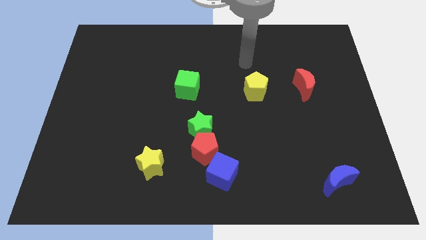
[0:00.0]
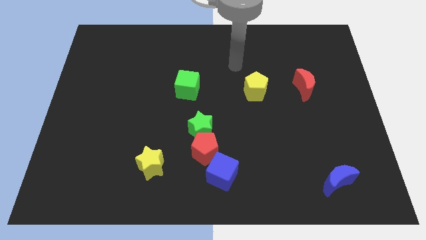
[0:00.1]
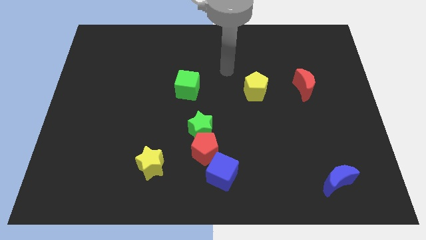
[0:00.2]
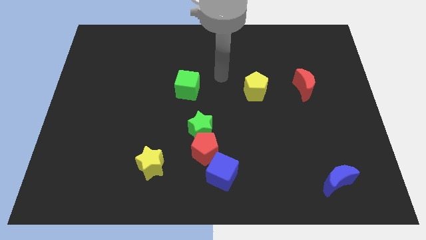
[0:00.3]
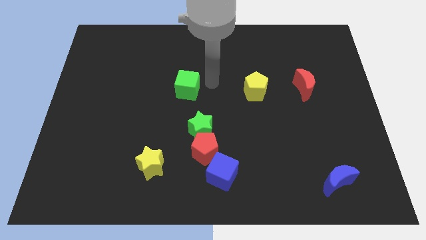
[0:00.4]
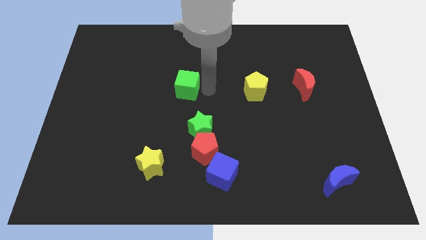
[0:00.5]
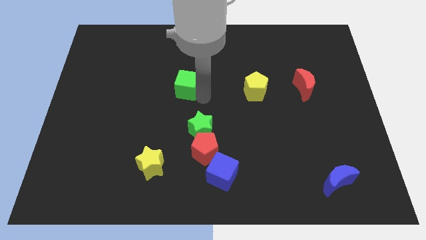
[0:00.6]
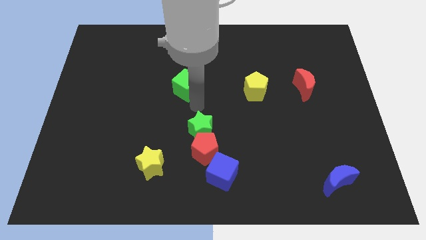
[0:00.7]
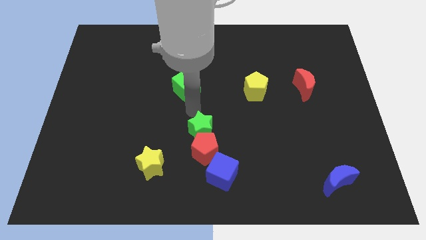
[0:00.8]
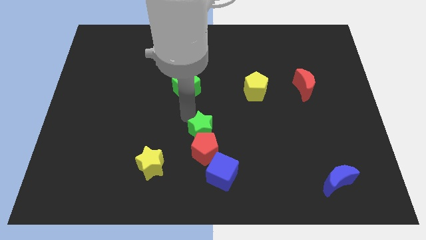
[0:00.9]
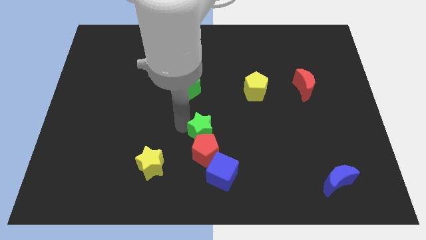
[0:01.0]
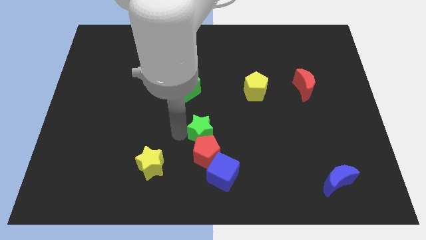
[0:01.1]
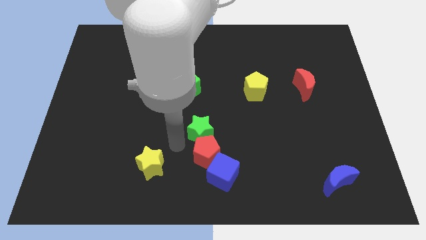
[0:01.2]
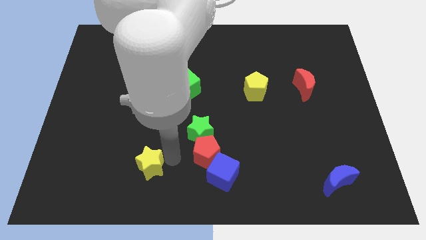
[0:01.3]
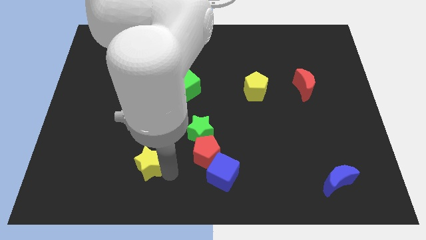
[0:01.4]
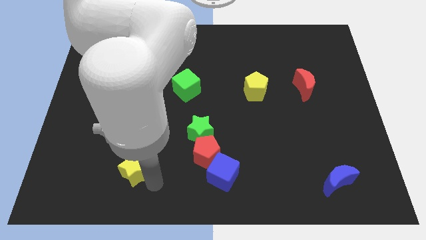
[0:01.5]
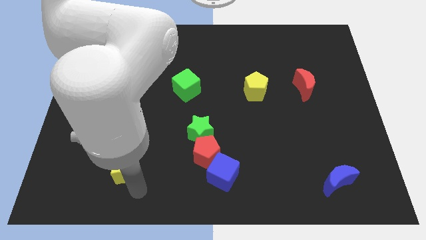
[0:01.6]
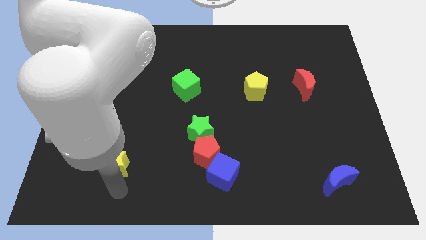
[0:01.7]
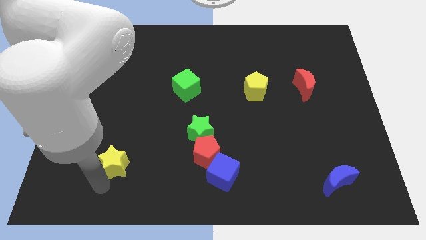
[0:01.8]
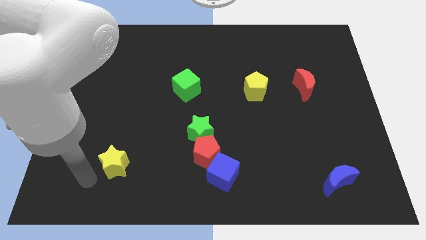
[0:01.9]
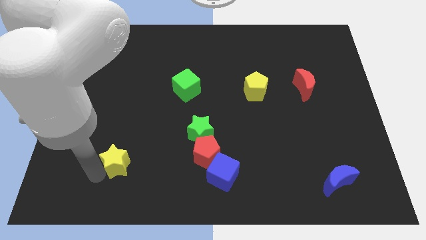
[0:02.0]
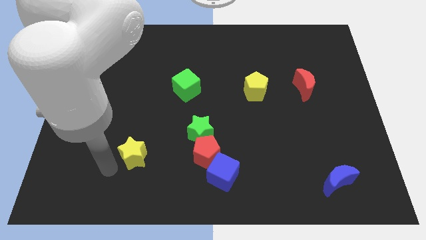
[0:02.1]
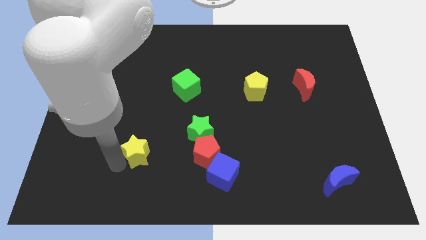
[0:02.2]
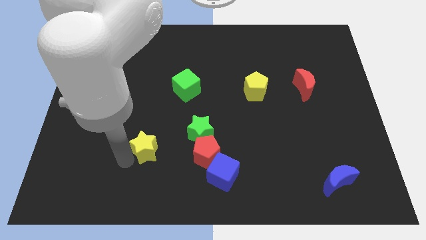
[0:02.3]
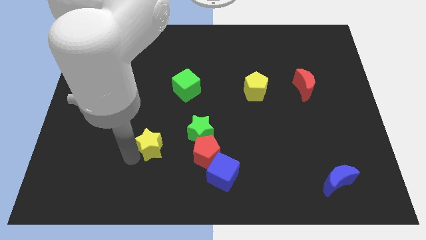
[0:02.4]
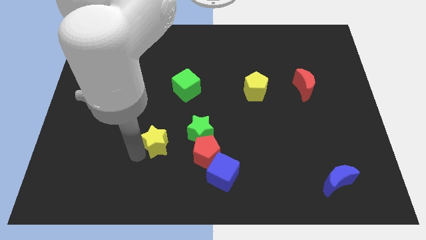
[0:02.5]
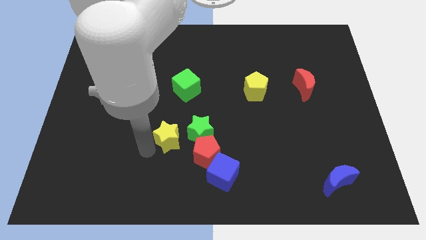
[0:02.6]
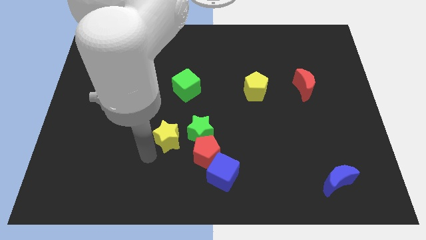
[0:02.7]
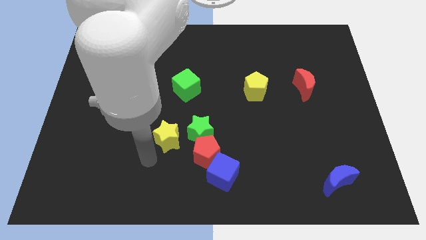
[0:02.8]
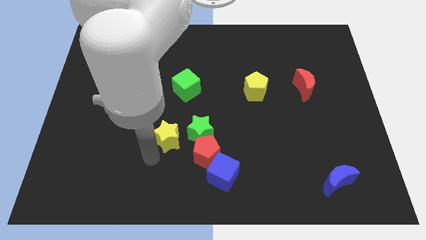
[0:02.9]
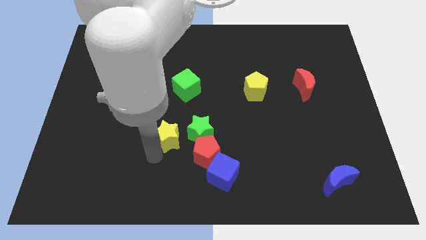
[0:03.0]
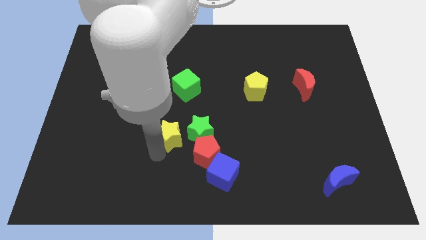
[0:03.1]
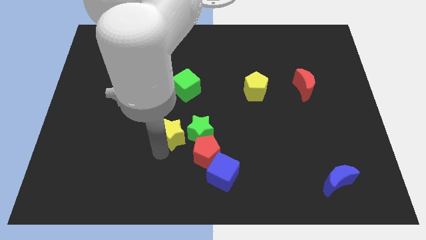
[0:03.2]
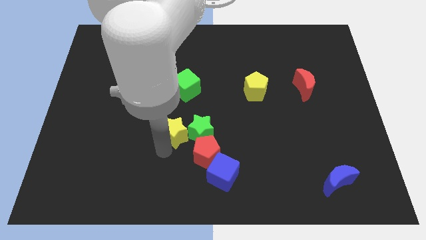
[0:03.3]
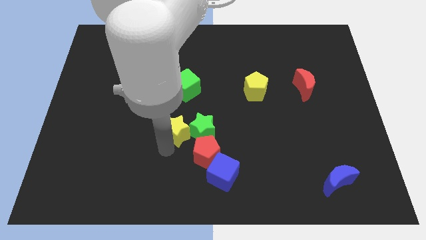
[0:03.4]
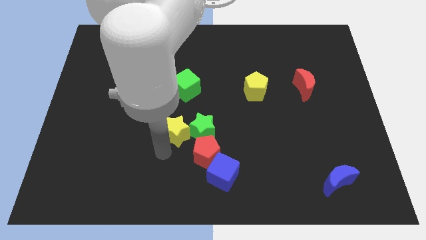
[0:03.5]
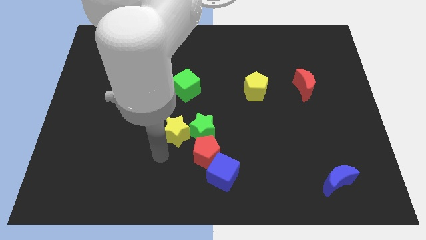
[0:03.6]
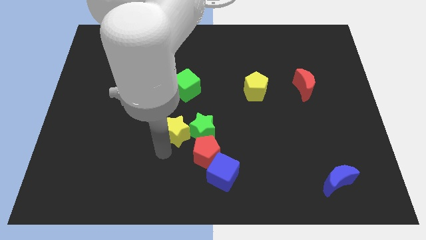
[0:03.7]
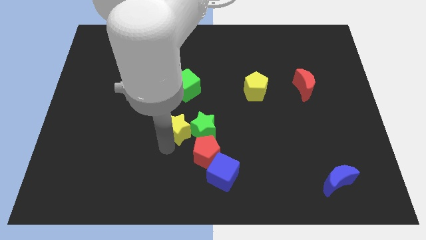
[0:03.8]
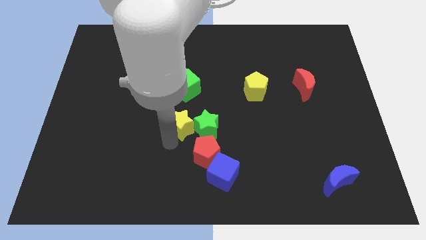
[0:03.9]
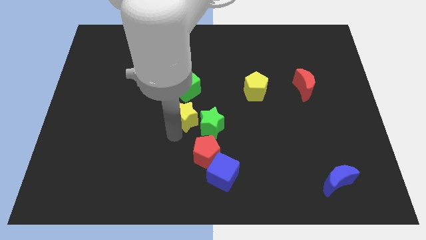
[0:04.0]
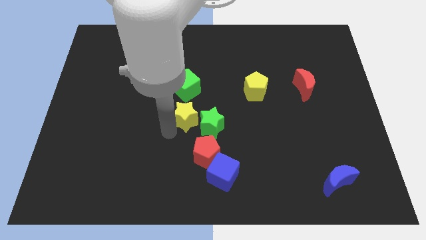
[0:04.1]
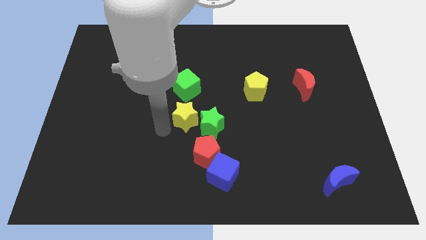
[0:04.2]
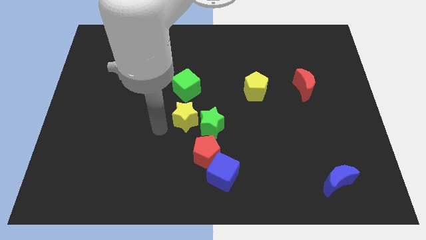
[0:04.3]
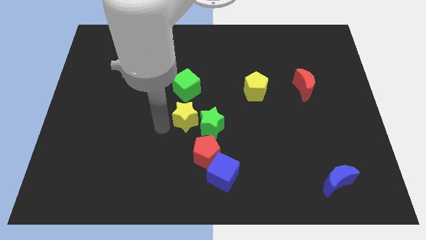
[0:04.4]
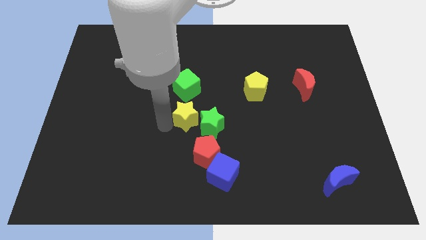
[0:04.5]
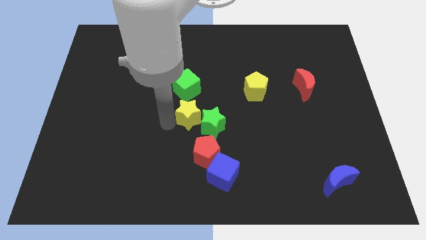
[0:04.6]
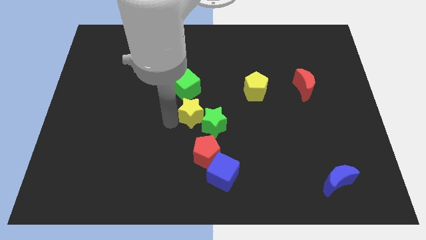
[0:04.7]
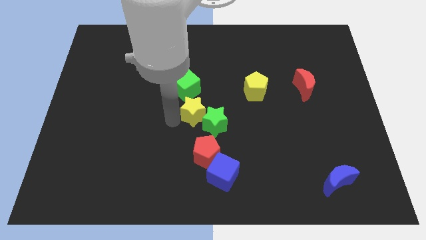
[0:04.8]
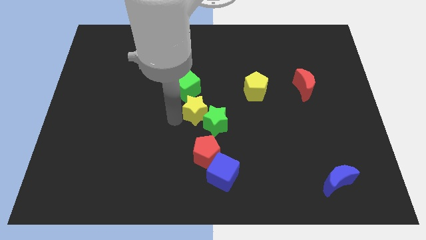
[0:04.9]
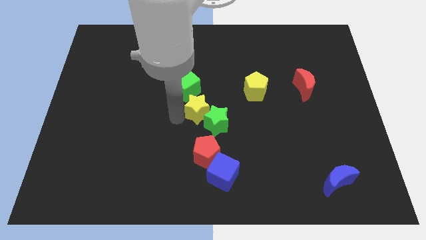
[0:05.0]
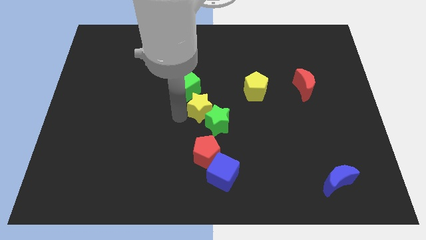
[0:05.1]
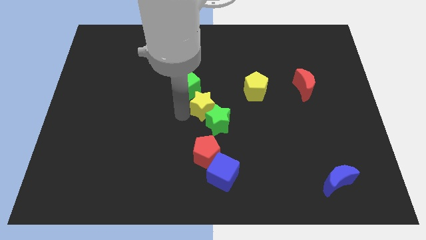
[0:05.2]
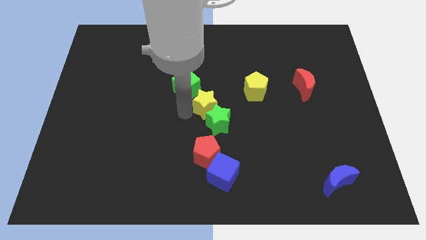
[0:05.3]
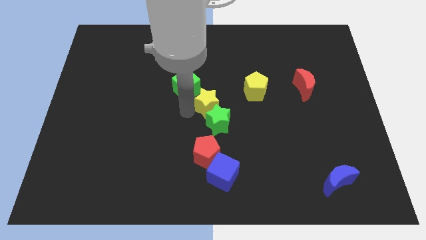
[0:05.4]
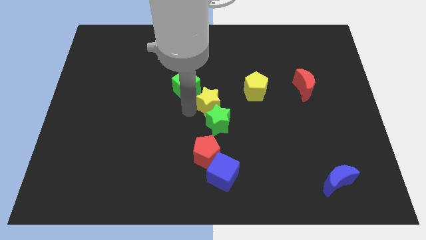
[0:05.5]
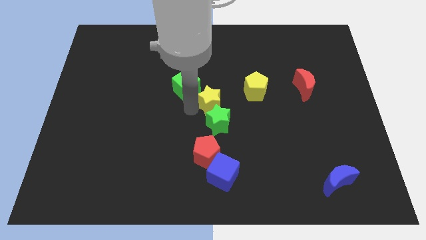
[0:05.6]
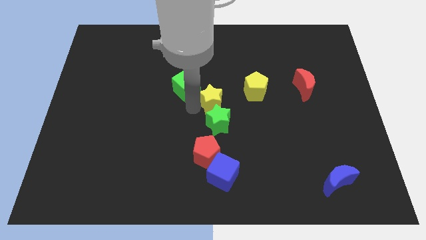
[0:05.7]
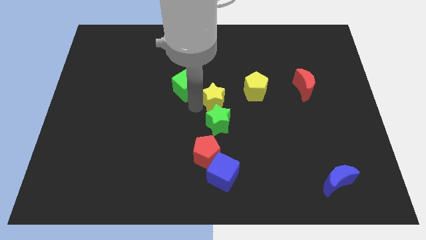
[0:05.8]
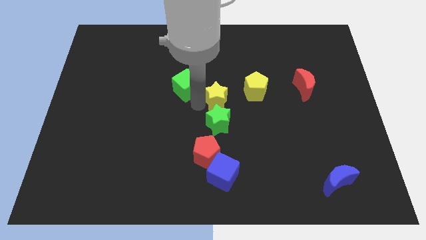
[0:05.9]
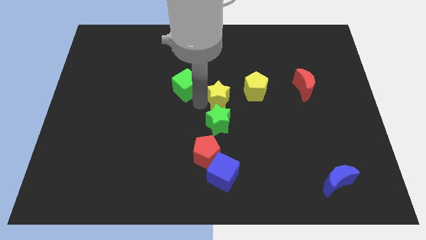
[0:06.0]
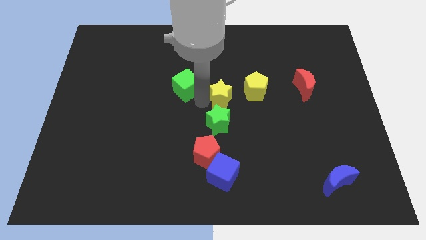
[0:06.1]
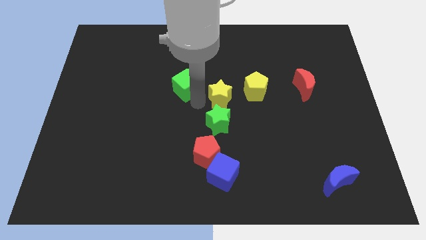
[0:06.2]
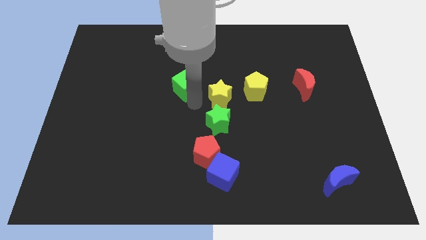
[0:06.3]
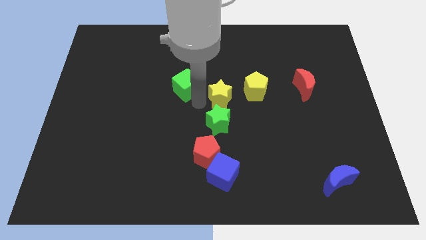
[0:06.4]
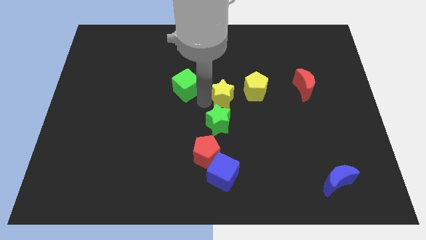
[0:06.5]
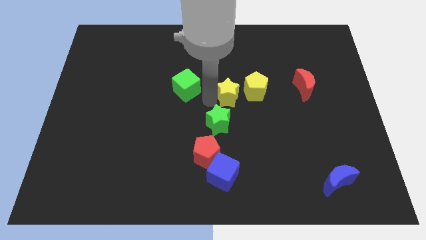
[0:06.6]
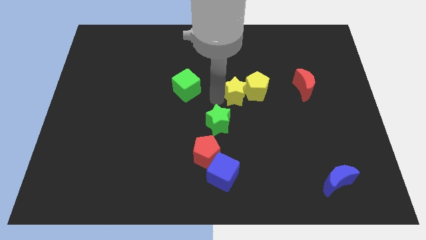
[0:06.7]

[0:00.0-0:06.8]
put the yellow star towards the yellow pentagon

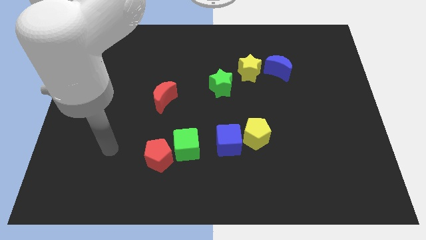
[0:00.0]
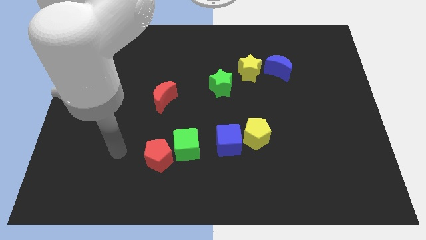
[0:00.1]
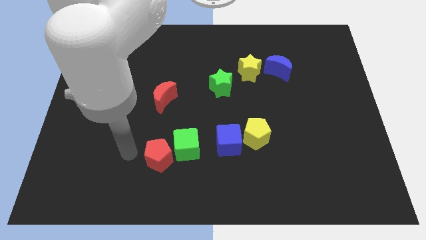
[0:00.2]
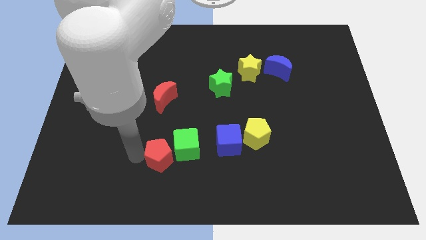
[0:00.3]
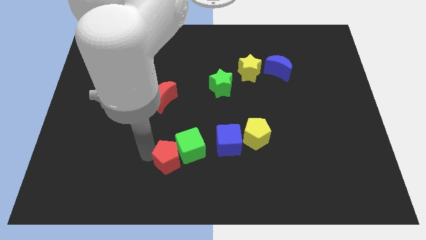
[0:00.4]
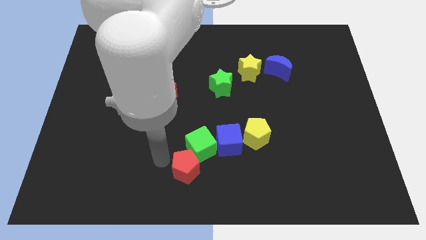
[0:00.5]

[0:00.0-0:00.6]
move the green cube towards the blue cube

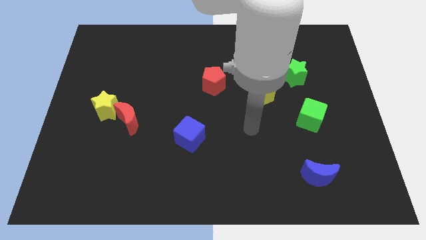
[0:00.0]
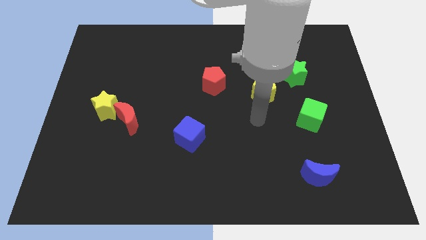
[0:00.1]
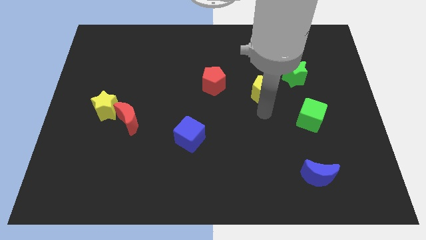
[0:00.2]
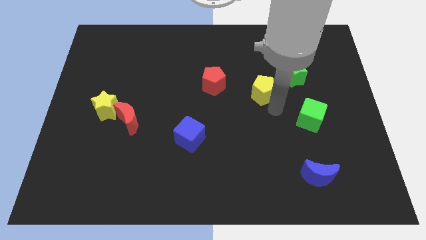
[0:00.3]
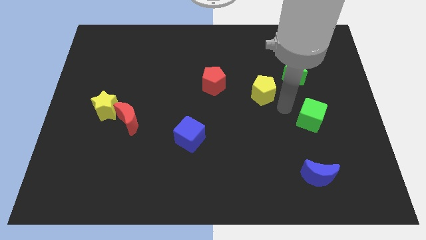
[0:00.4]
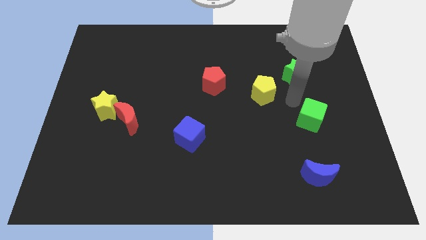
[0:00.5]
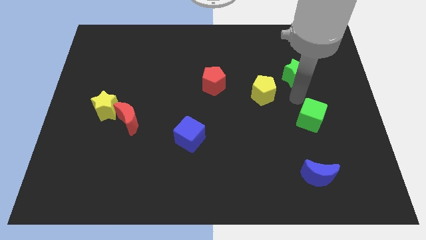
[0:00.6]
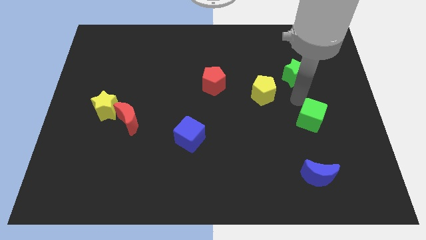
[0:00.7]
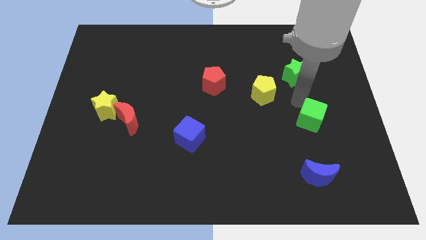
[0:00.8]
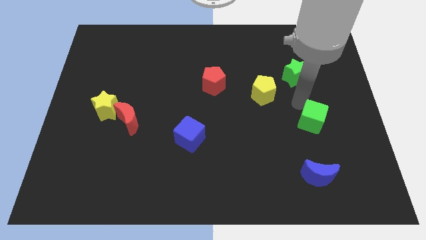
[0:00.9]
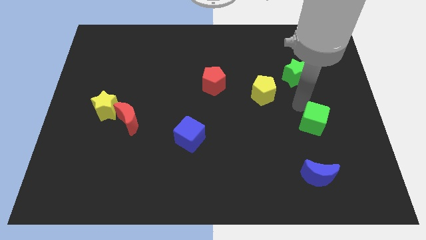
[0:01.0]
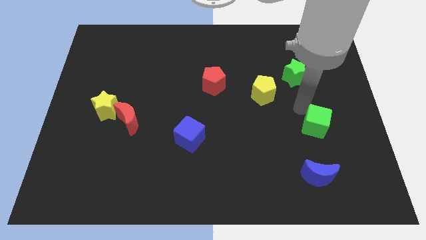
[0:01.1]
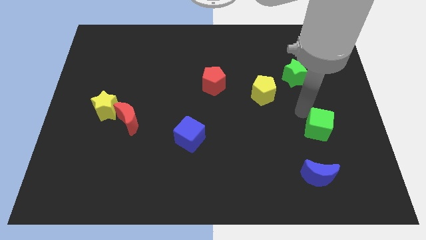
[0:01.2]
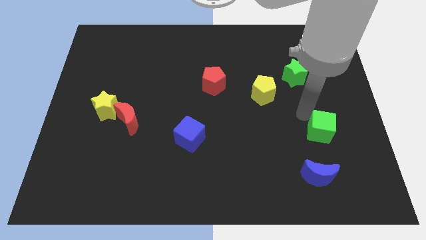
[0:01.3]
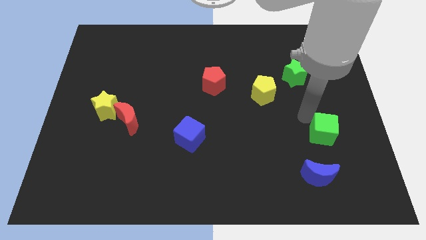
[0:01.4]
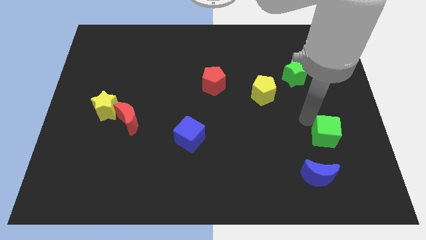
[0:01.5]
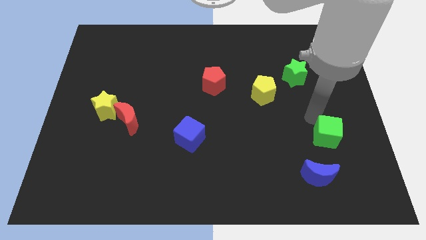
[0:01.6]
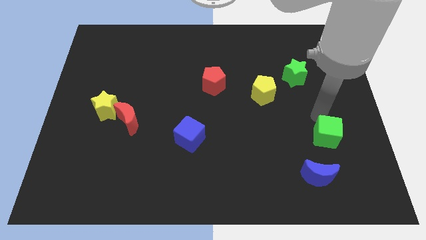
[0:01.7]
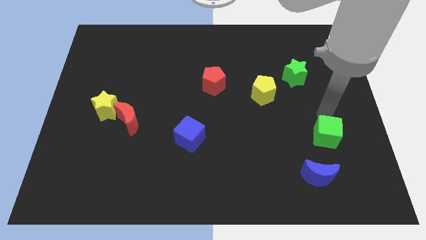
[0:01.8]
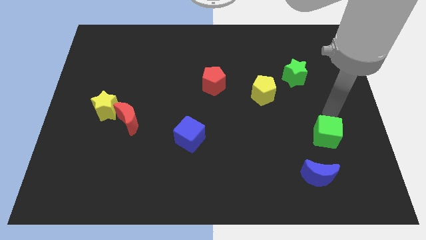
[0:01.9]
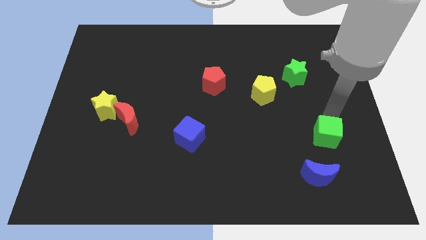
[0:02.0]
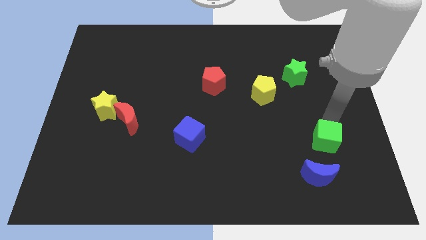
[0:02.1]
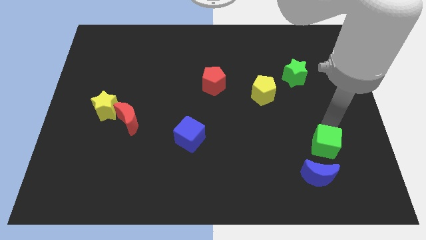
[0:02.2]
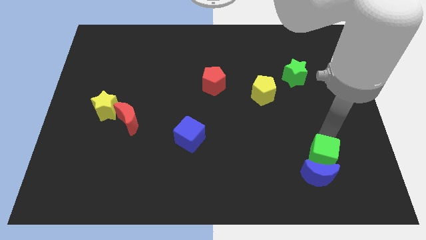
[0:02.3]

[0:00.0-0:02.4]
move the green cube towards the blue moon
